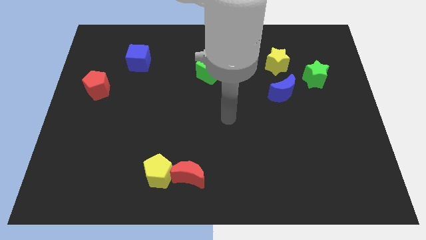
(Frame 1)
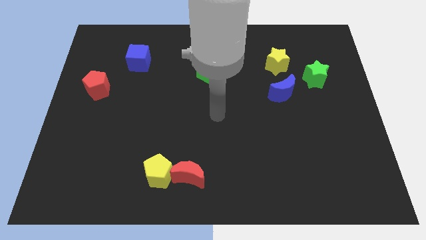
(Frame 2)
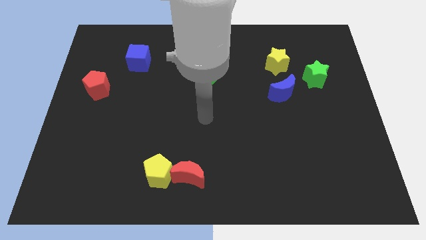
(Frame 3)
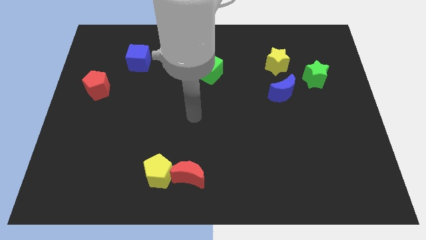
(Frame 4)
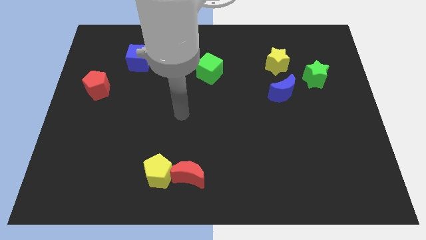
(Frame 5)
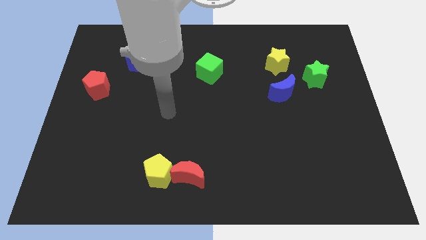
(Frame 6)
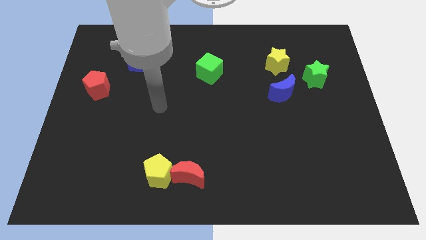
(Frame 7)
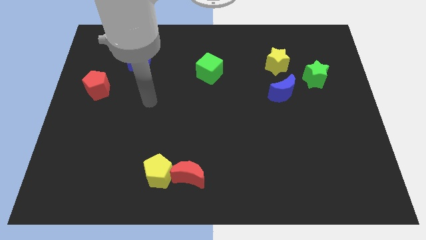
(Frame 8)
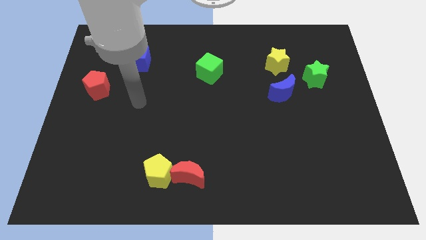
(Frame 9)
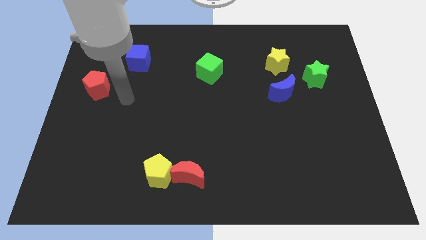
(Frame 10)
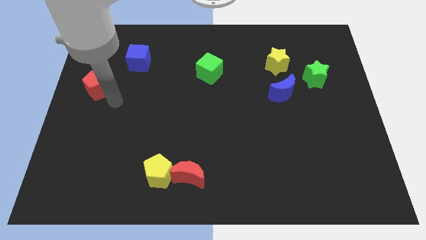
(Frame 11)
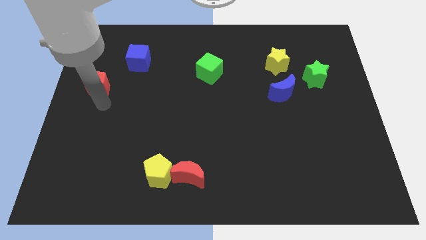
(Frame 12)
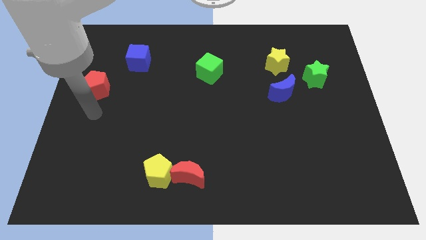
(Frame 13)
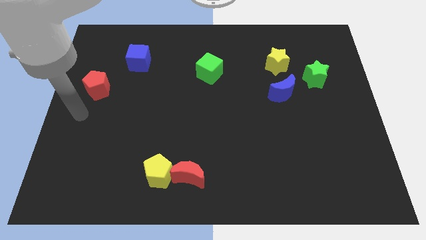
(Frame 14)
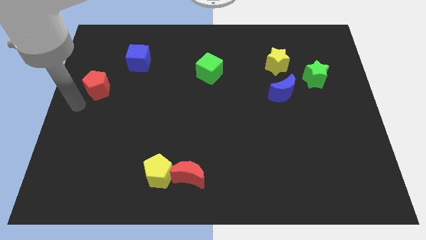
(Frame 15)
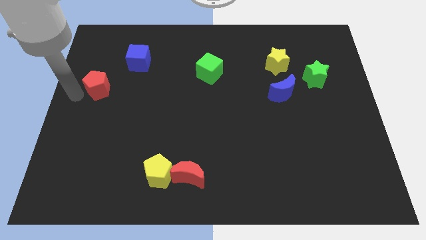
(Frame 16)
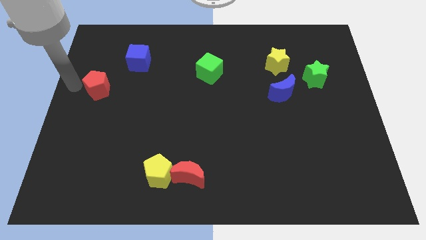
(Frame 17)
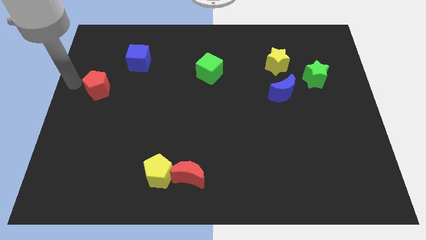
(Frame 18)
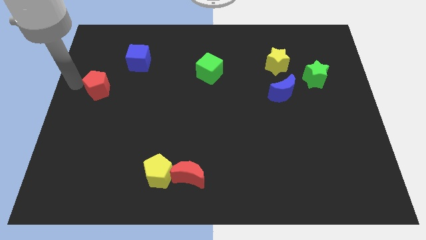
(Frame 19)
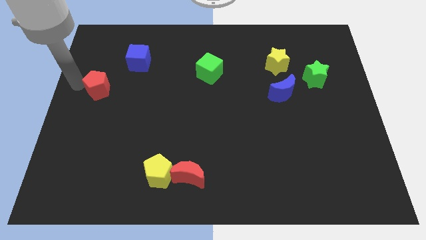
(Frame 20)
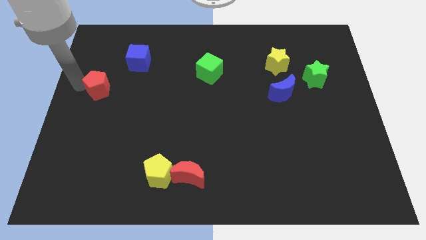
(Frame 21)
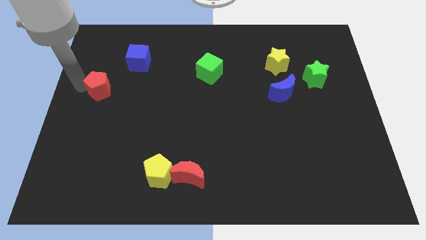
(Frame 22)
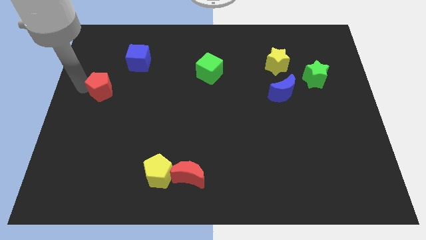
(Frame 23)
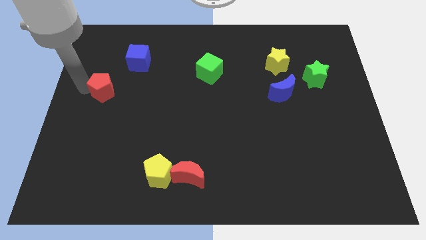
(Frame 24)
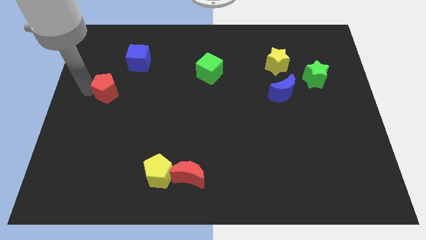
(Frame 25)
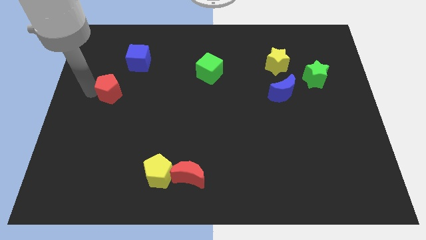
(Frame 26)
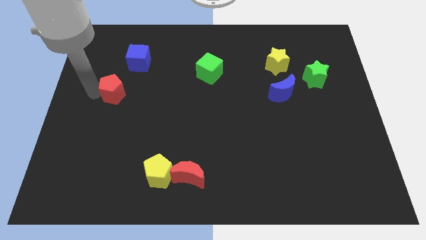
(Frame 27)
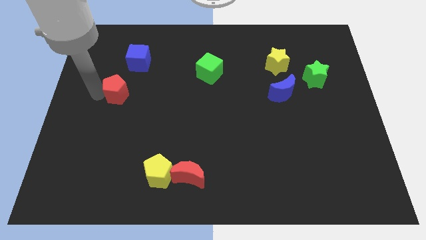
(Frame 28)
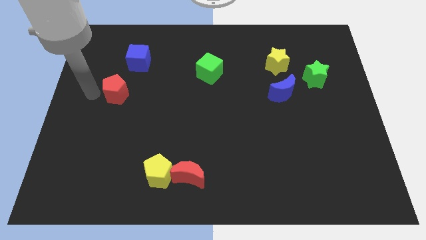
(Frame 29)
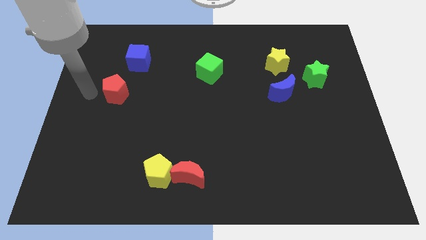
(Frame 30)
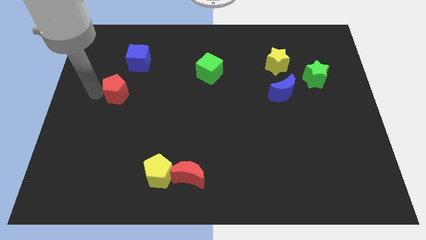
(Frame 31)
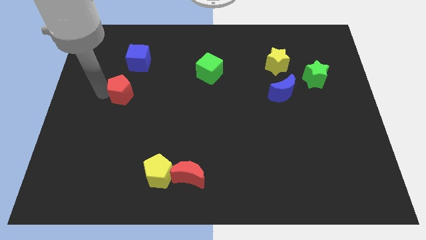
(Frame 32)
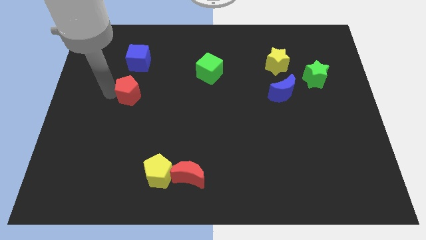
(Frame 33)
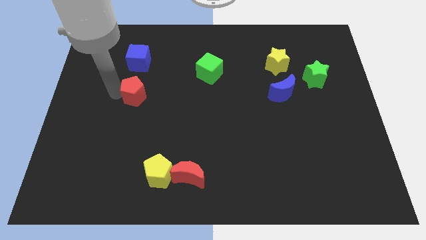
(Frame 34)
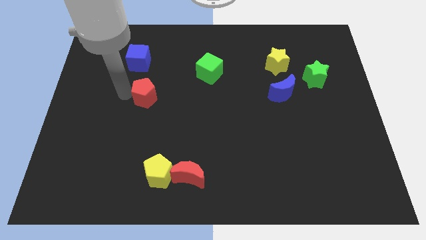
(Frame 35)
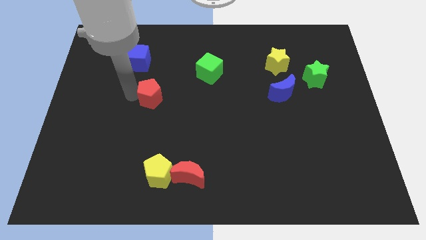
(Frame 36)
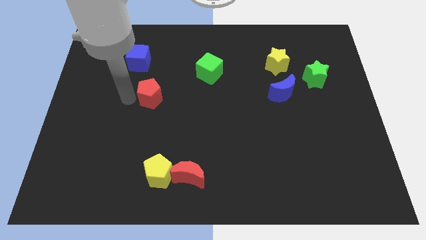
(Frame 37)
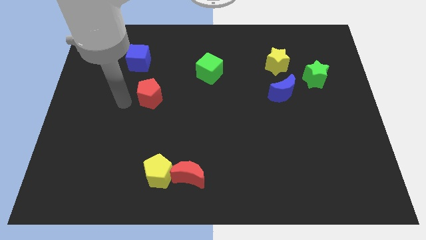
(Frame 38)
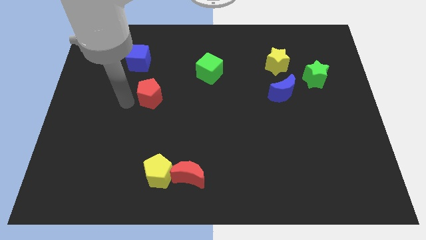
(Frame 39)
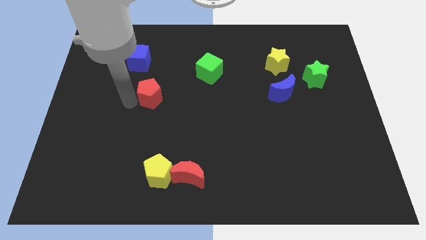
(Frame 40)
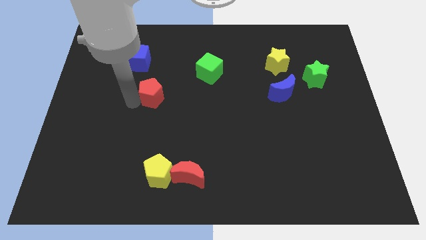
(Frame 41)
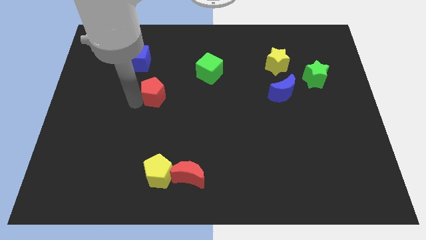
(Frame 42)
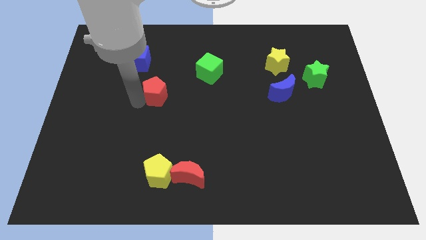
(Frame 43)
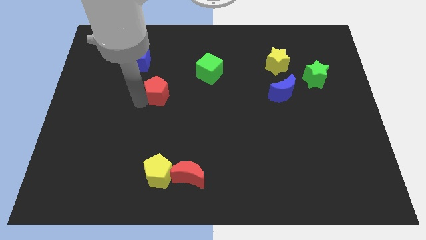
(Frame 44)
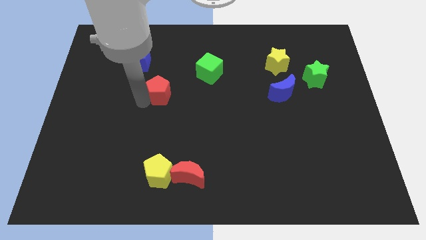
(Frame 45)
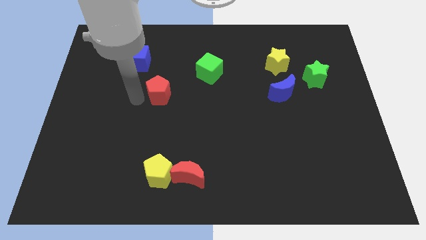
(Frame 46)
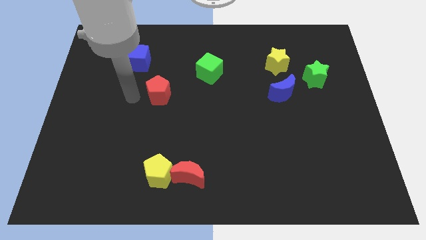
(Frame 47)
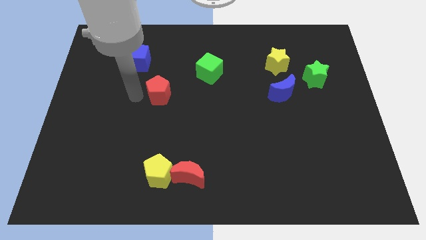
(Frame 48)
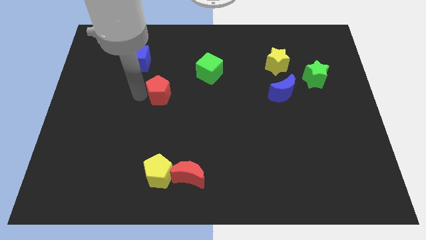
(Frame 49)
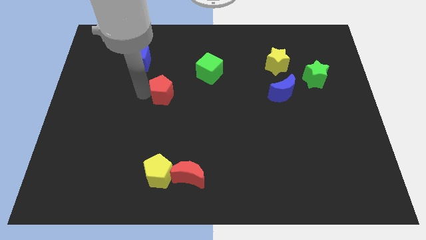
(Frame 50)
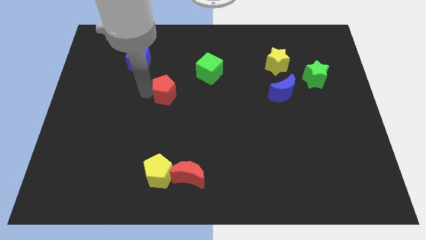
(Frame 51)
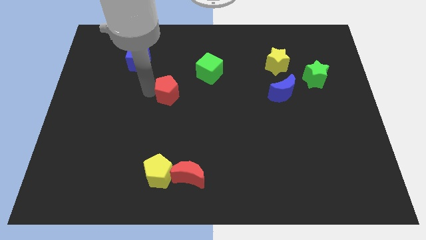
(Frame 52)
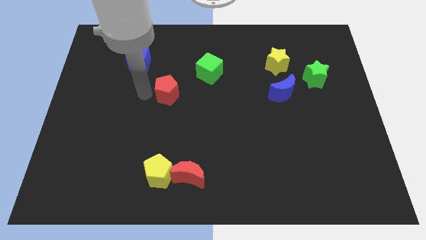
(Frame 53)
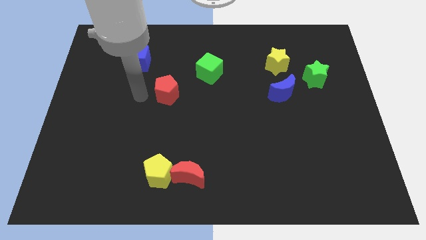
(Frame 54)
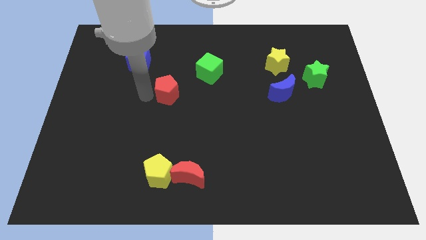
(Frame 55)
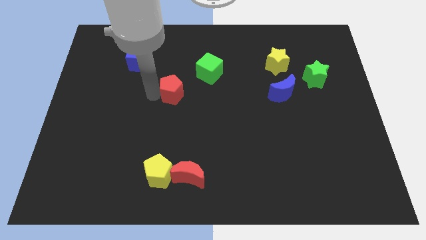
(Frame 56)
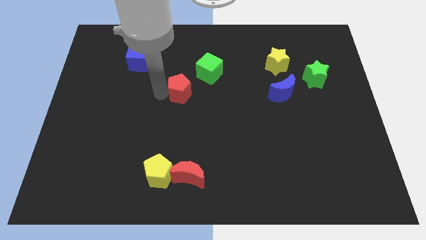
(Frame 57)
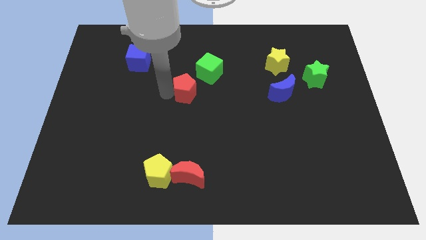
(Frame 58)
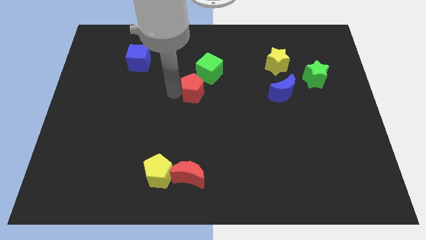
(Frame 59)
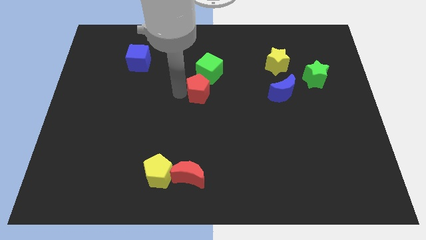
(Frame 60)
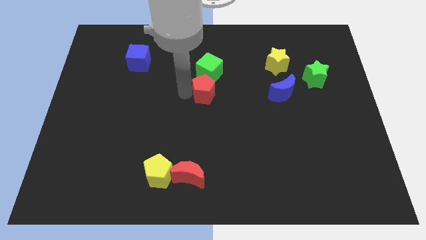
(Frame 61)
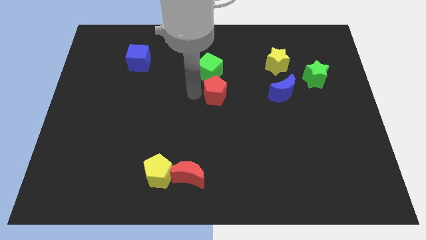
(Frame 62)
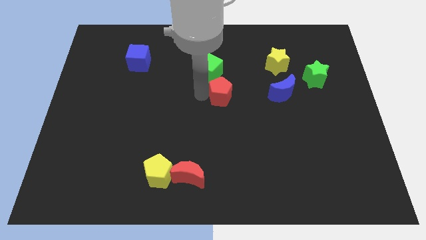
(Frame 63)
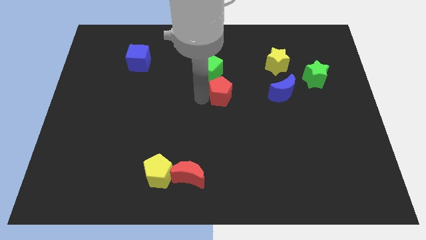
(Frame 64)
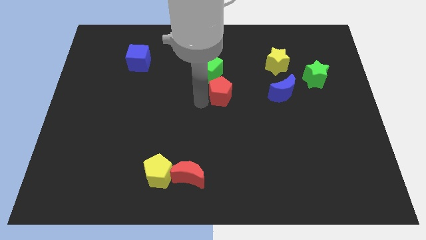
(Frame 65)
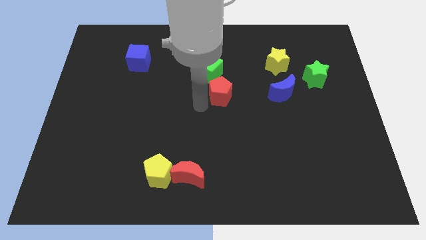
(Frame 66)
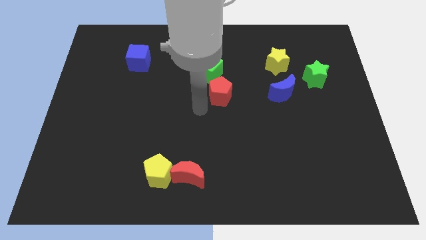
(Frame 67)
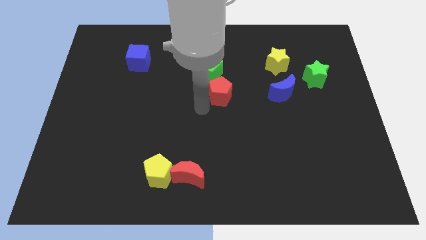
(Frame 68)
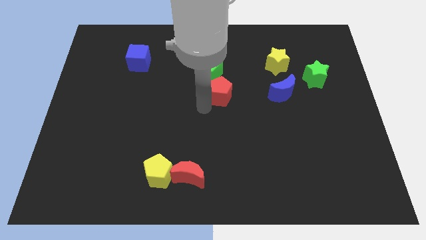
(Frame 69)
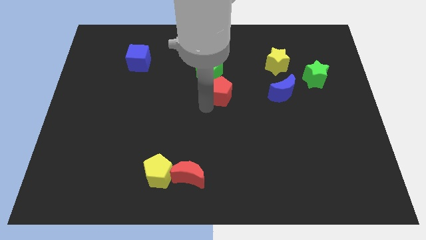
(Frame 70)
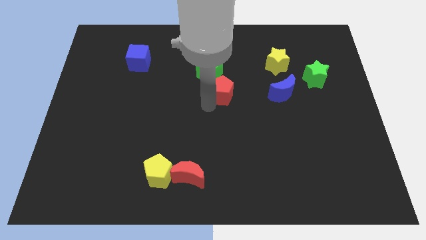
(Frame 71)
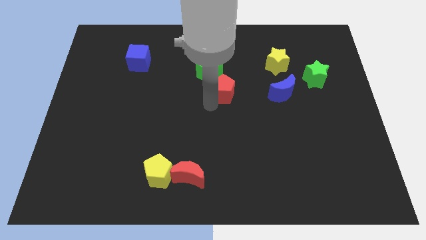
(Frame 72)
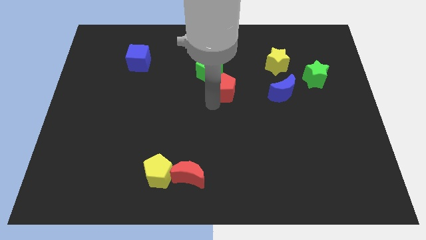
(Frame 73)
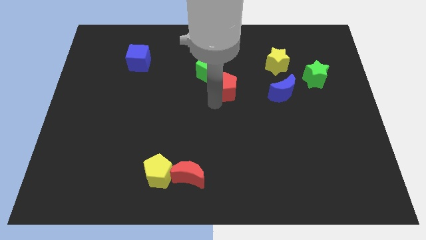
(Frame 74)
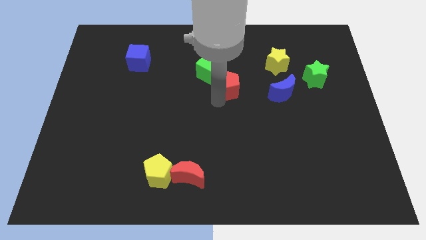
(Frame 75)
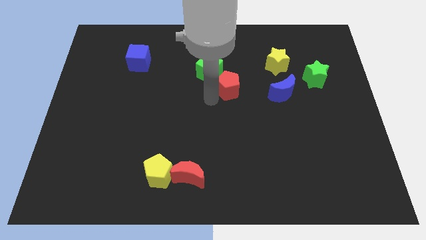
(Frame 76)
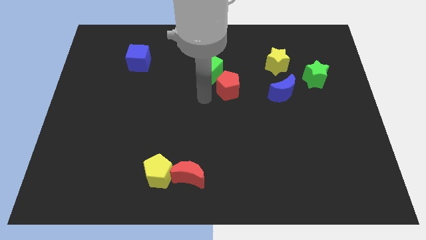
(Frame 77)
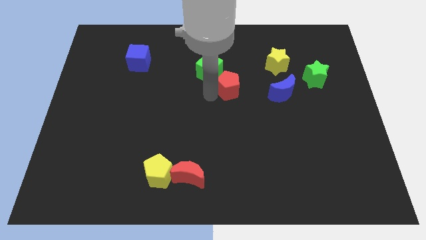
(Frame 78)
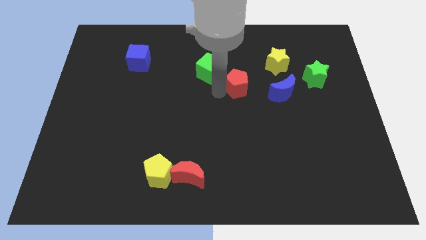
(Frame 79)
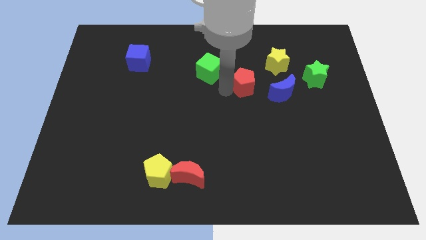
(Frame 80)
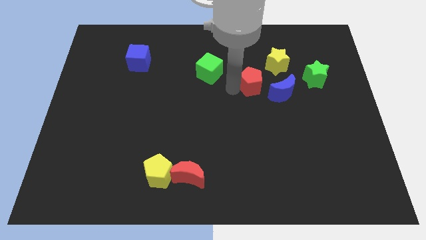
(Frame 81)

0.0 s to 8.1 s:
slide the red pentagon to the top left side of the blue moon
